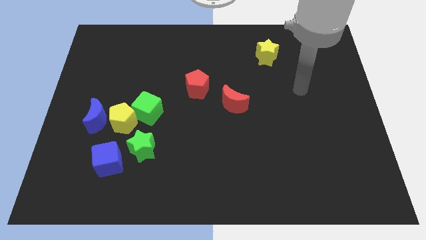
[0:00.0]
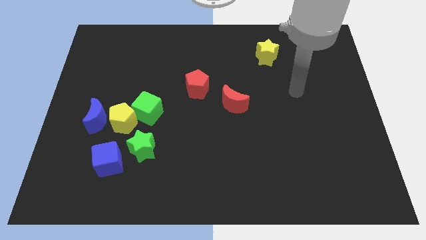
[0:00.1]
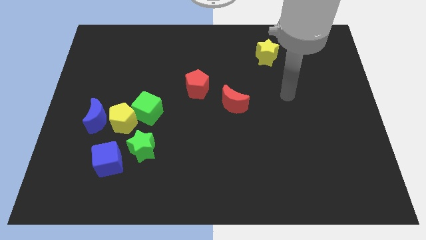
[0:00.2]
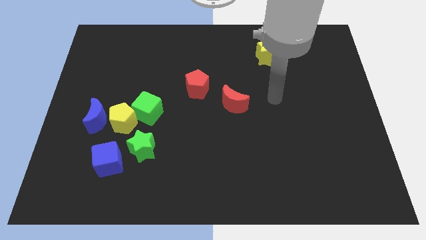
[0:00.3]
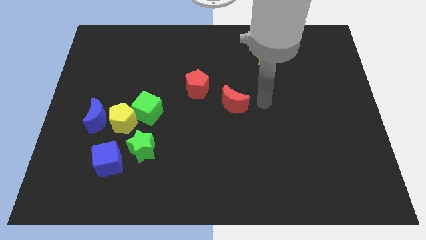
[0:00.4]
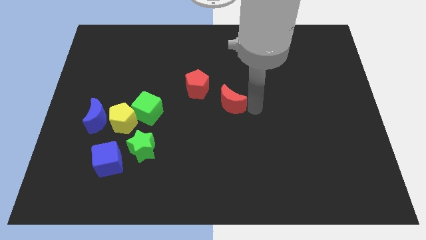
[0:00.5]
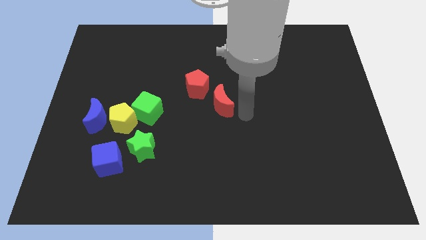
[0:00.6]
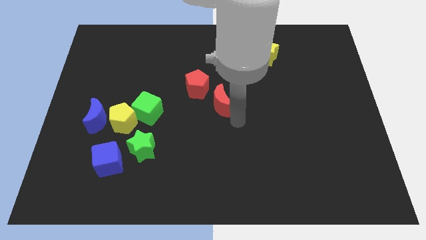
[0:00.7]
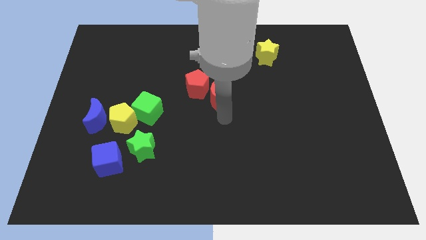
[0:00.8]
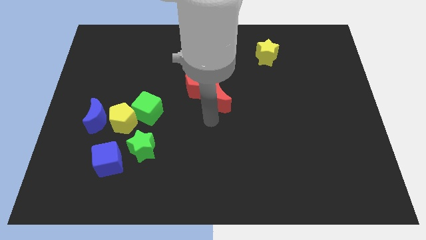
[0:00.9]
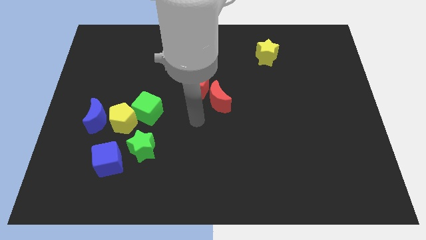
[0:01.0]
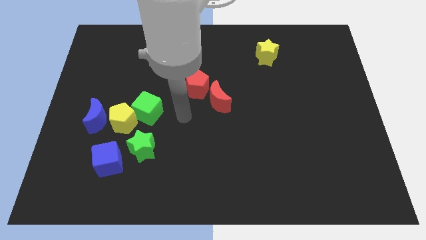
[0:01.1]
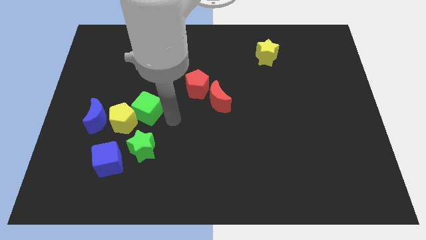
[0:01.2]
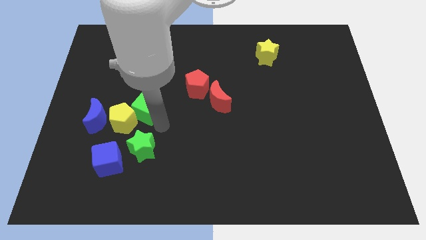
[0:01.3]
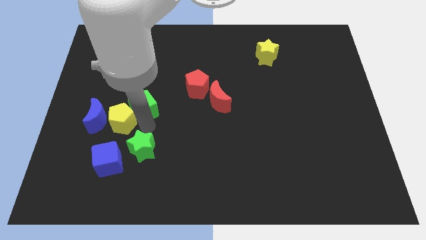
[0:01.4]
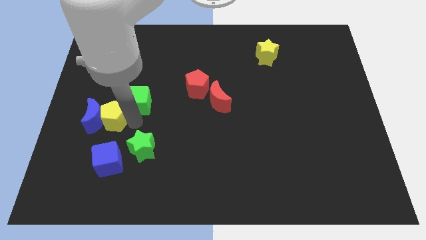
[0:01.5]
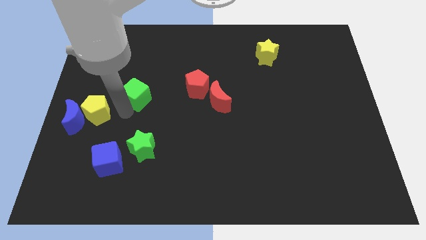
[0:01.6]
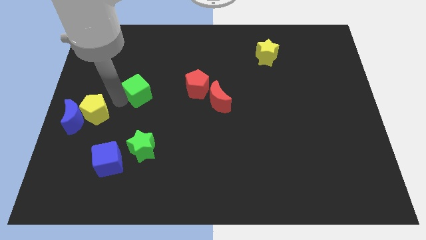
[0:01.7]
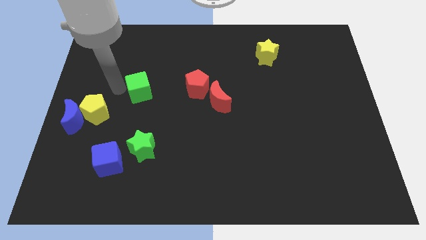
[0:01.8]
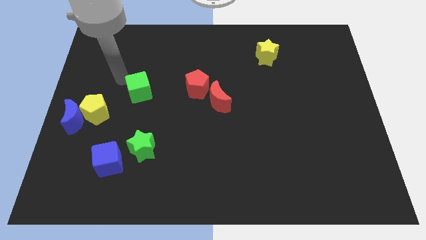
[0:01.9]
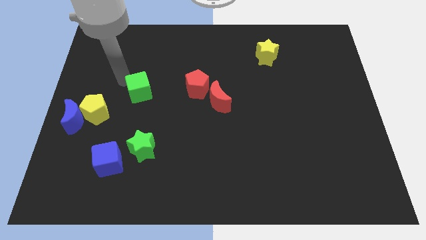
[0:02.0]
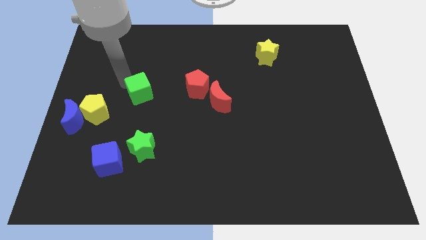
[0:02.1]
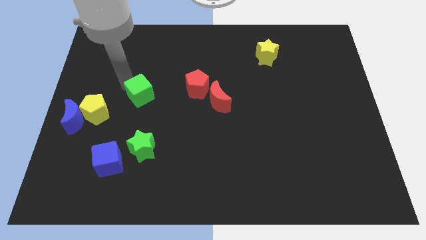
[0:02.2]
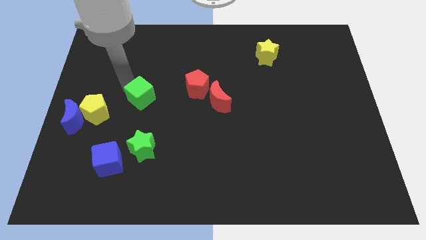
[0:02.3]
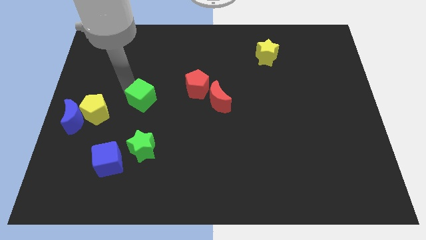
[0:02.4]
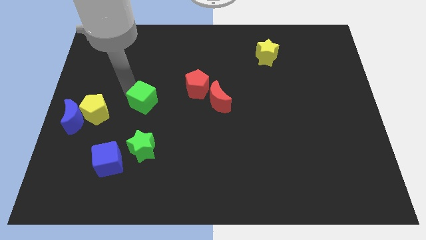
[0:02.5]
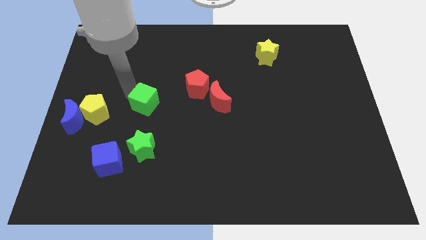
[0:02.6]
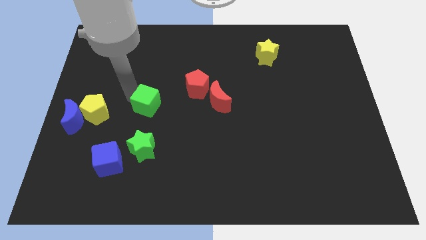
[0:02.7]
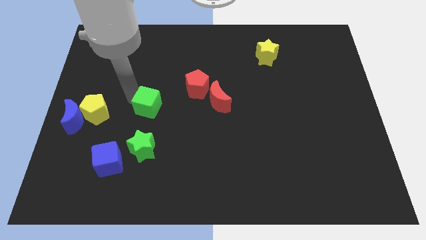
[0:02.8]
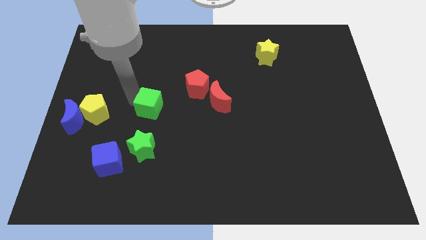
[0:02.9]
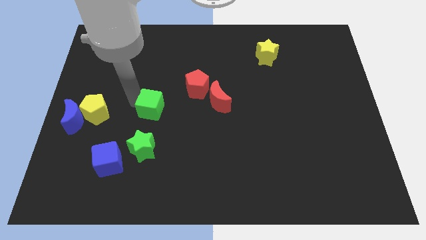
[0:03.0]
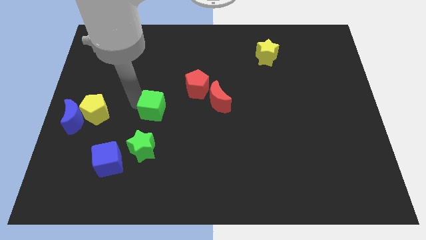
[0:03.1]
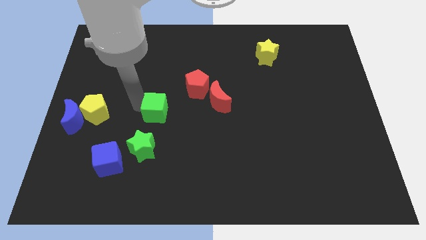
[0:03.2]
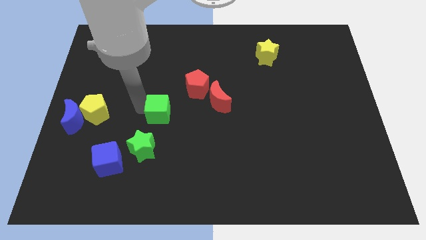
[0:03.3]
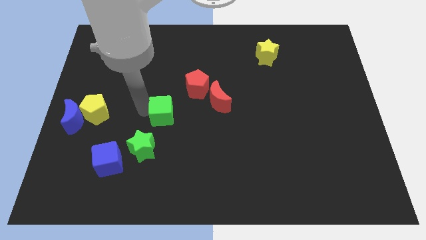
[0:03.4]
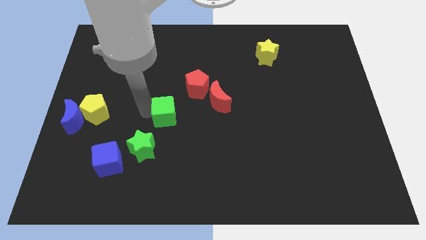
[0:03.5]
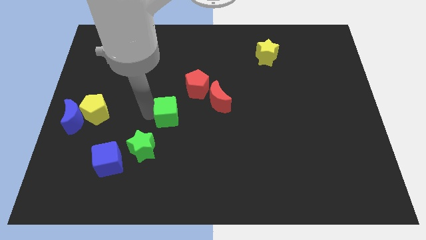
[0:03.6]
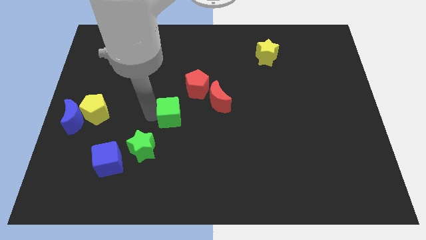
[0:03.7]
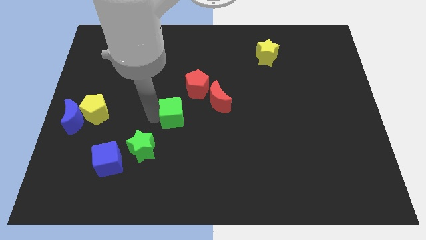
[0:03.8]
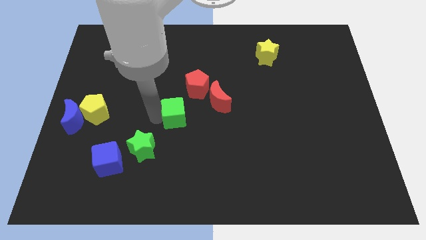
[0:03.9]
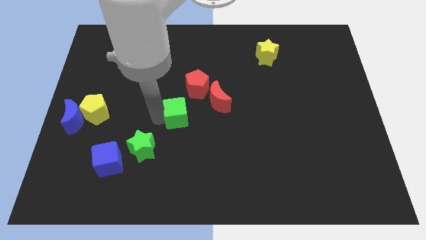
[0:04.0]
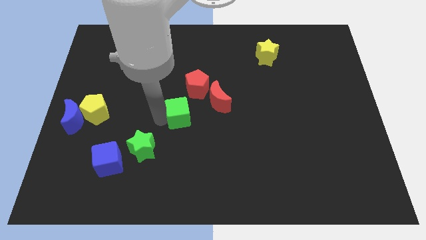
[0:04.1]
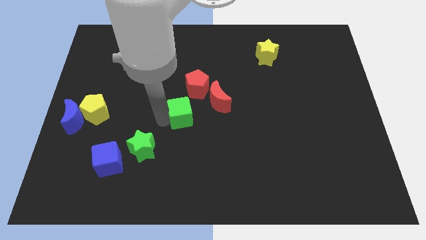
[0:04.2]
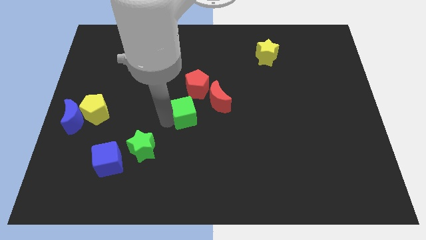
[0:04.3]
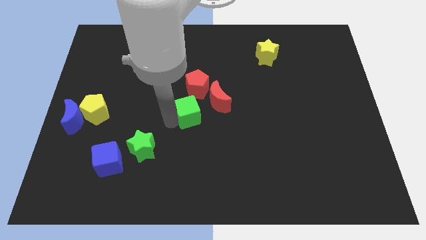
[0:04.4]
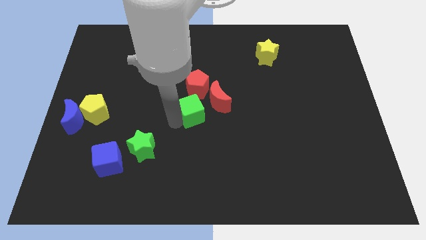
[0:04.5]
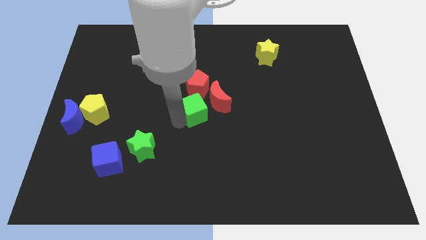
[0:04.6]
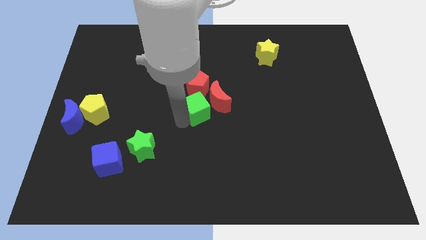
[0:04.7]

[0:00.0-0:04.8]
put the green cube towards the red moon

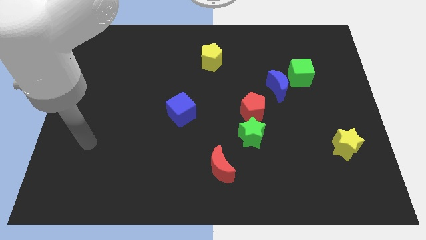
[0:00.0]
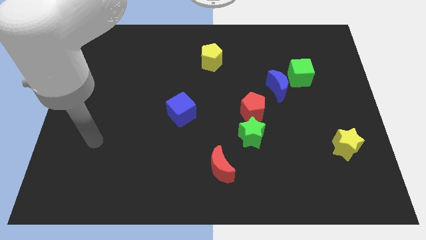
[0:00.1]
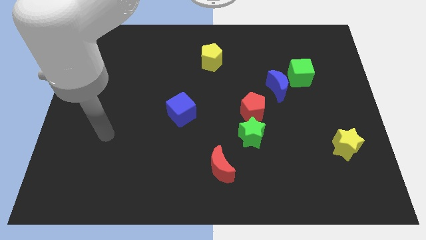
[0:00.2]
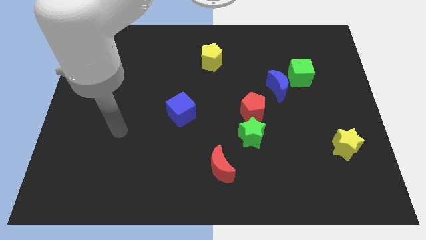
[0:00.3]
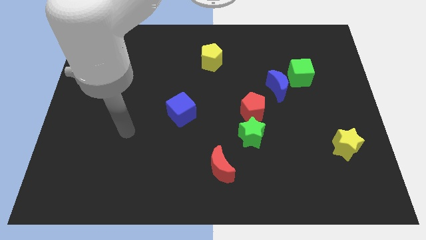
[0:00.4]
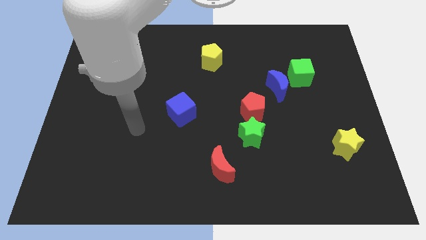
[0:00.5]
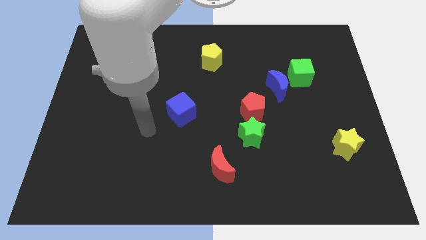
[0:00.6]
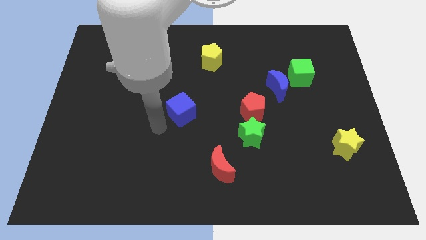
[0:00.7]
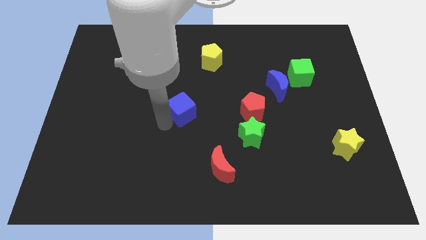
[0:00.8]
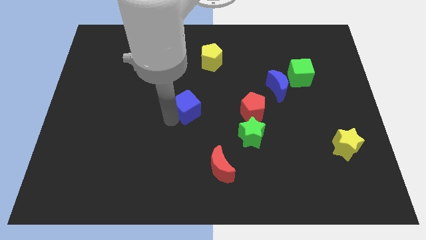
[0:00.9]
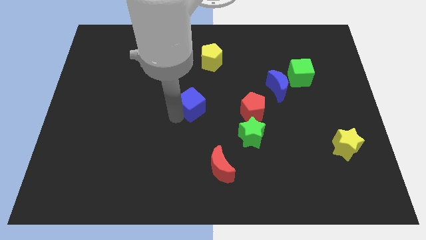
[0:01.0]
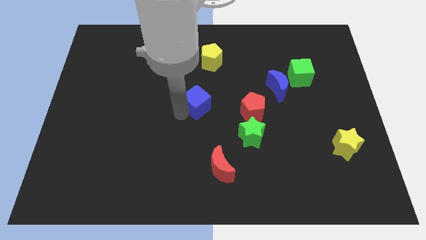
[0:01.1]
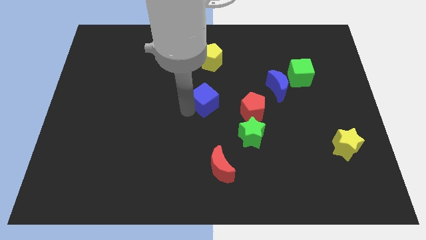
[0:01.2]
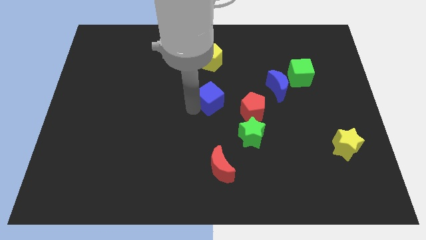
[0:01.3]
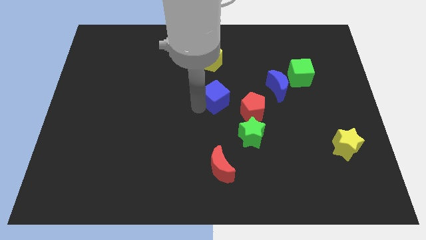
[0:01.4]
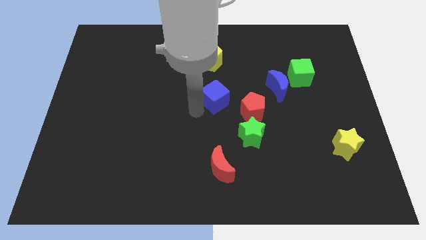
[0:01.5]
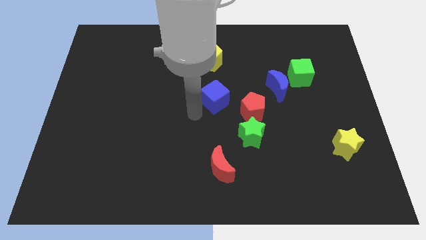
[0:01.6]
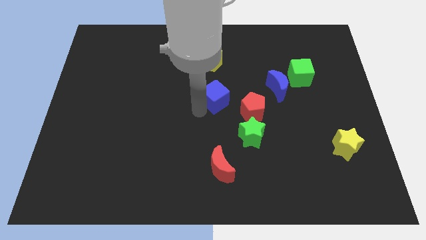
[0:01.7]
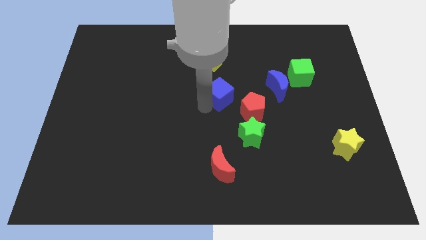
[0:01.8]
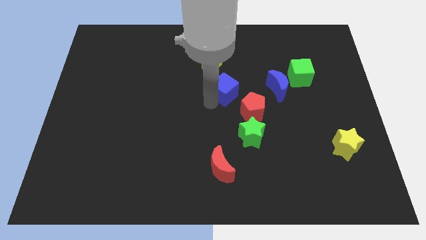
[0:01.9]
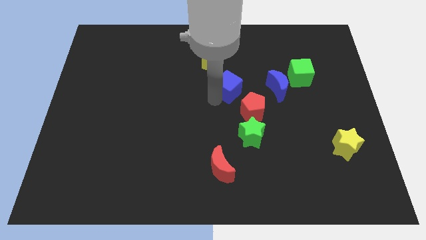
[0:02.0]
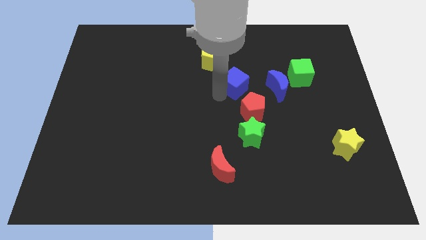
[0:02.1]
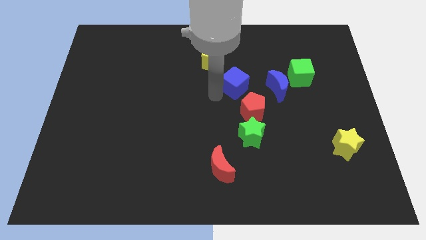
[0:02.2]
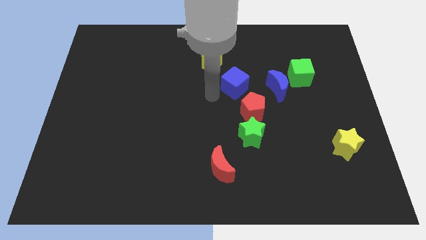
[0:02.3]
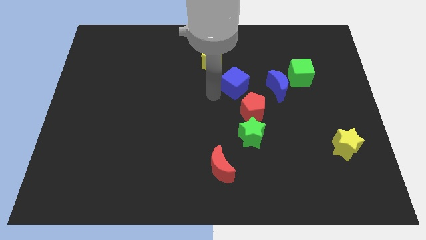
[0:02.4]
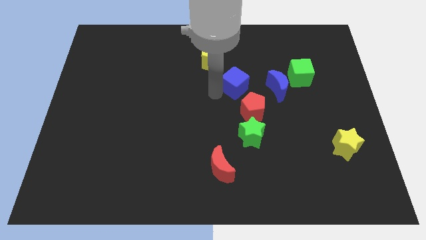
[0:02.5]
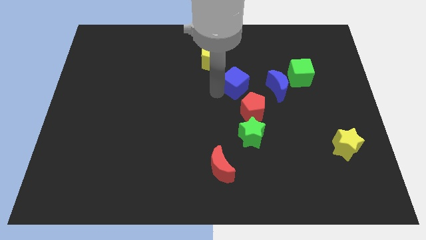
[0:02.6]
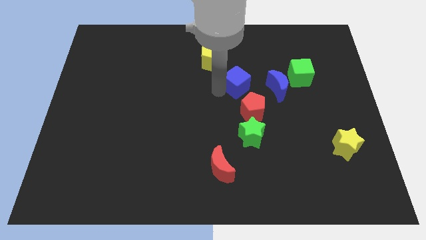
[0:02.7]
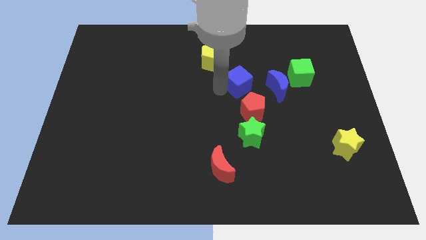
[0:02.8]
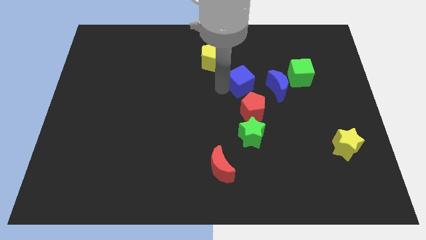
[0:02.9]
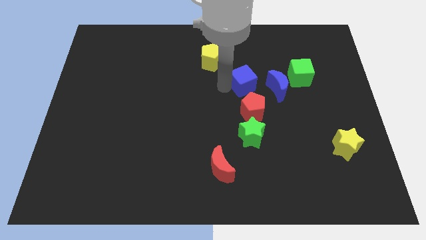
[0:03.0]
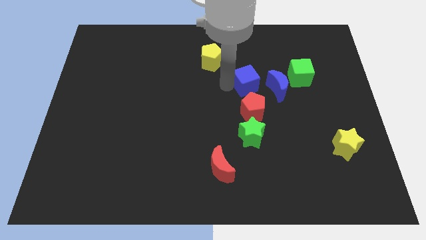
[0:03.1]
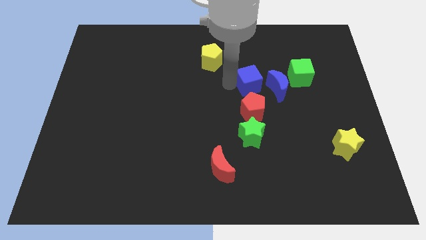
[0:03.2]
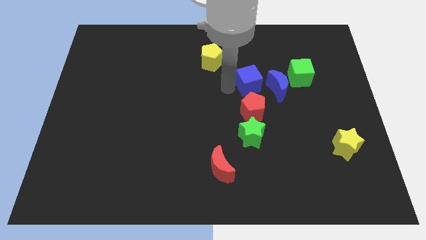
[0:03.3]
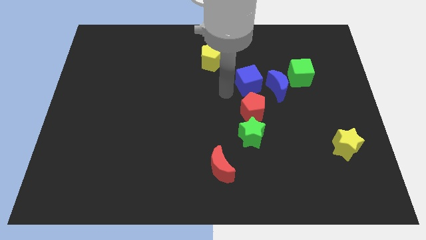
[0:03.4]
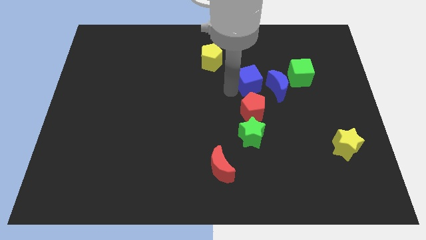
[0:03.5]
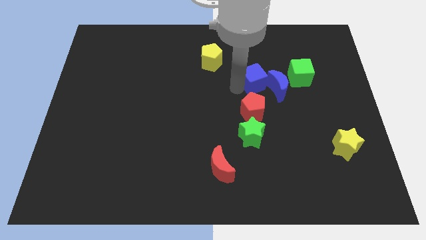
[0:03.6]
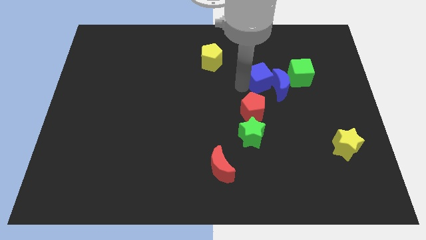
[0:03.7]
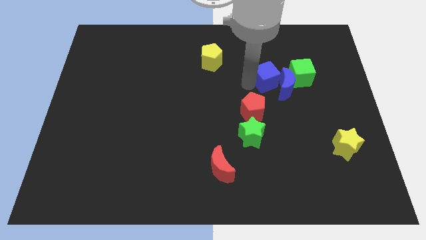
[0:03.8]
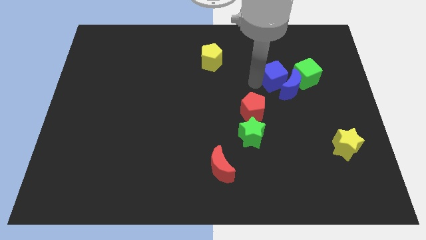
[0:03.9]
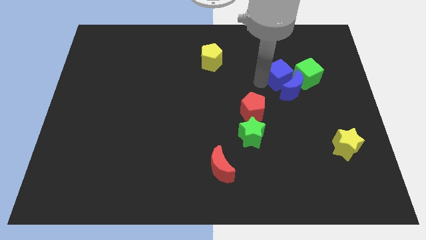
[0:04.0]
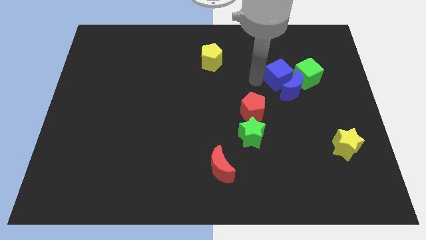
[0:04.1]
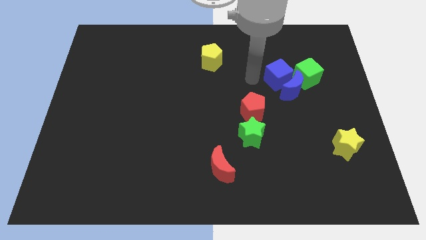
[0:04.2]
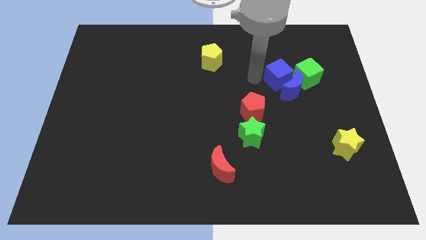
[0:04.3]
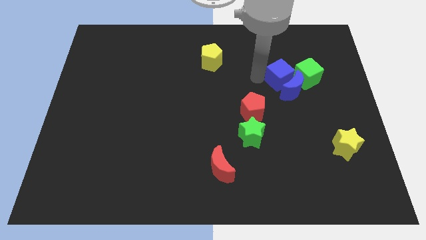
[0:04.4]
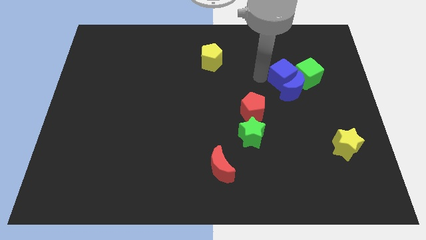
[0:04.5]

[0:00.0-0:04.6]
slide the blue cube close to the green cube
